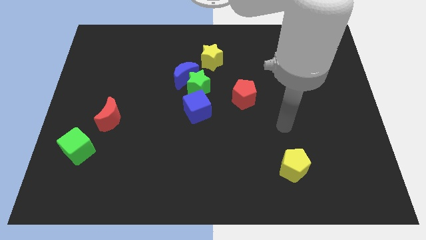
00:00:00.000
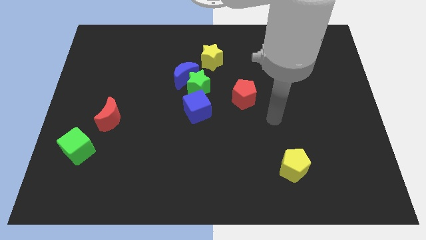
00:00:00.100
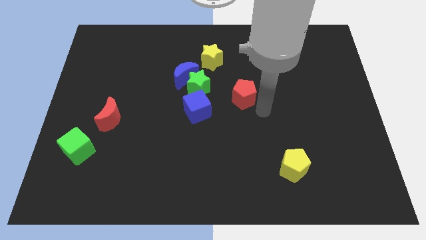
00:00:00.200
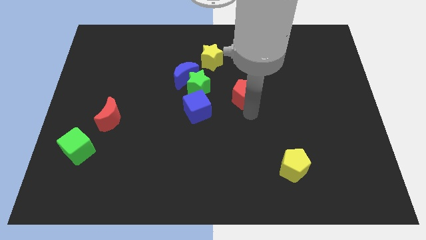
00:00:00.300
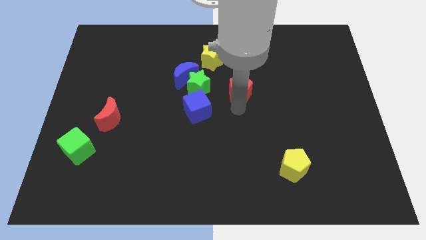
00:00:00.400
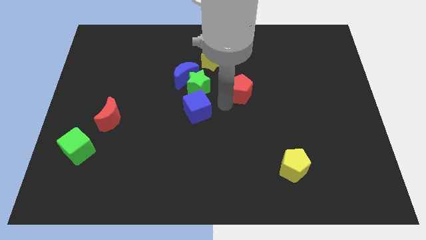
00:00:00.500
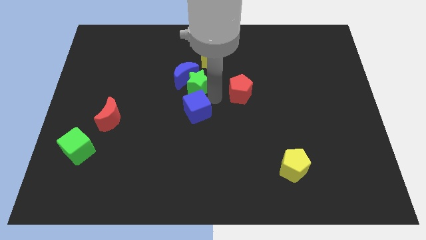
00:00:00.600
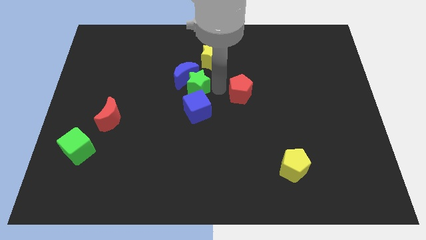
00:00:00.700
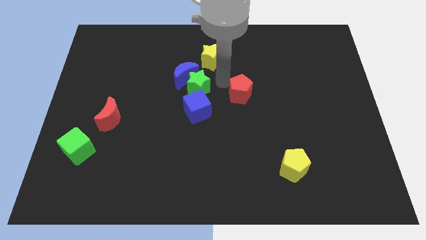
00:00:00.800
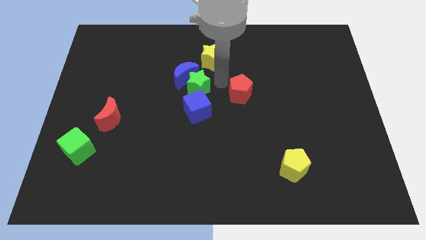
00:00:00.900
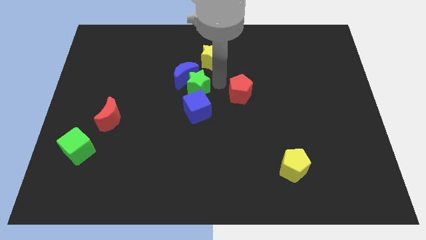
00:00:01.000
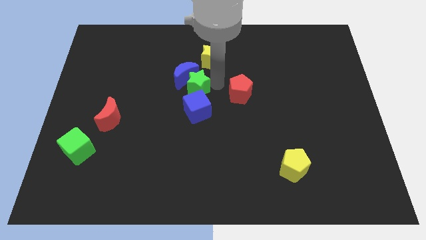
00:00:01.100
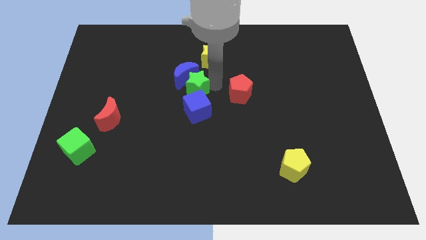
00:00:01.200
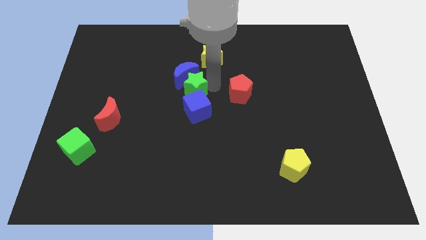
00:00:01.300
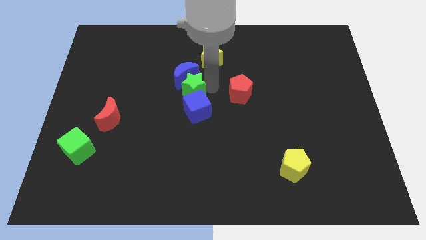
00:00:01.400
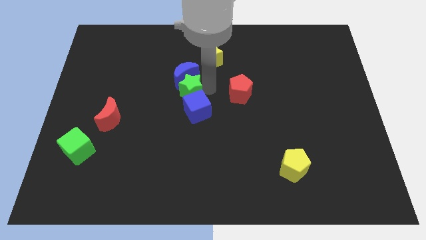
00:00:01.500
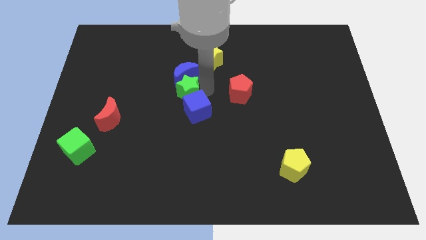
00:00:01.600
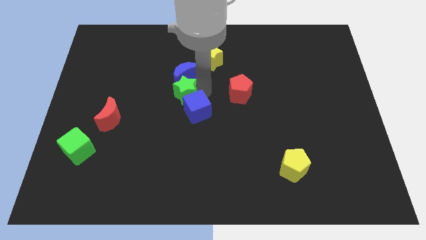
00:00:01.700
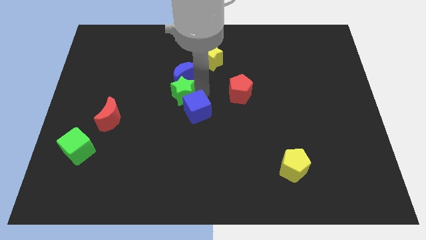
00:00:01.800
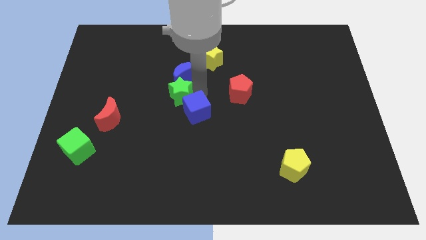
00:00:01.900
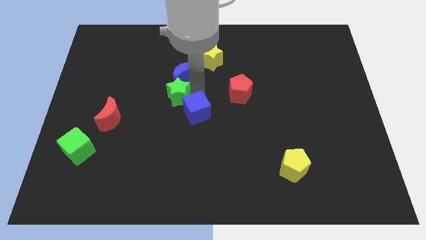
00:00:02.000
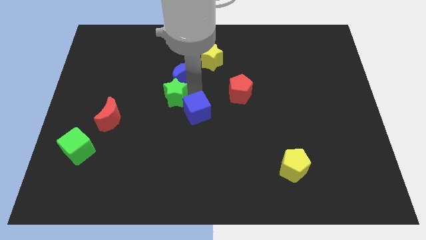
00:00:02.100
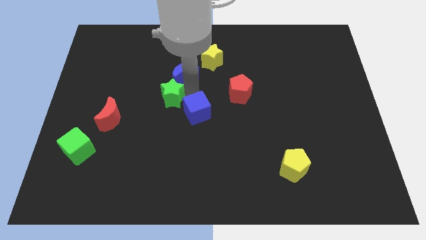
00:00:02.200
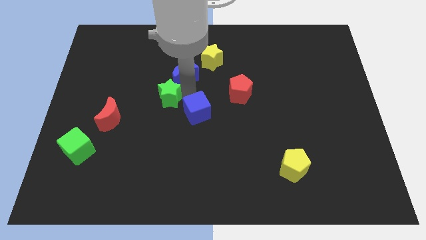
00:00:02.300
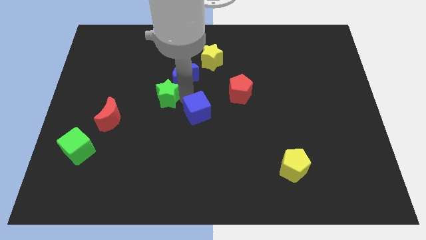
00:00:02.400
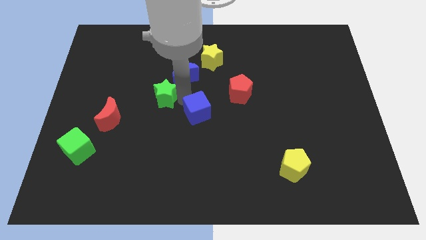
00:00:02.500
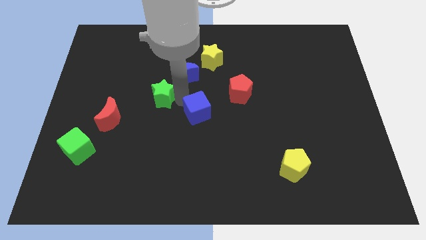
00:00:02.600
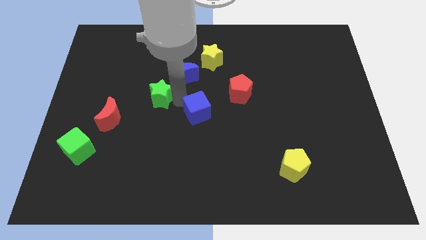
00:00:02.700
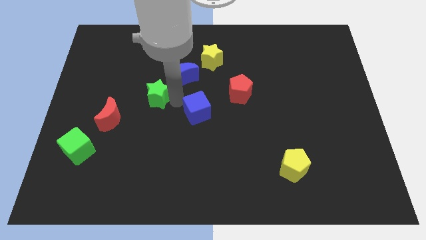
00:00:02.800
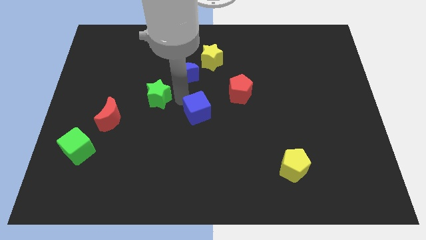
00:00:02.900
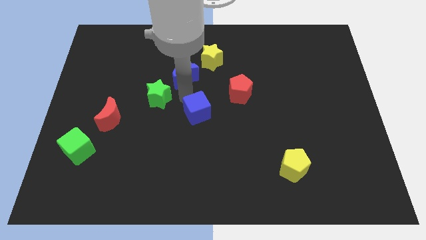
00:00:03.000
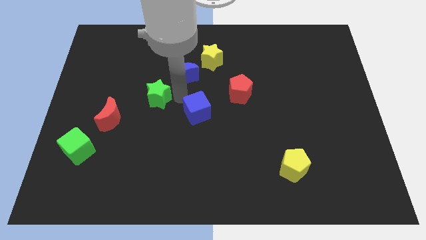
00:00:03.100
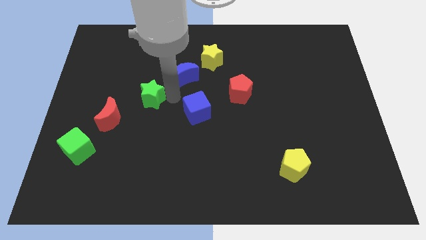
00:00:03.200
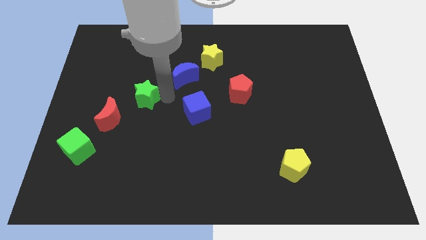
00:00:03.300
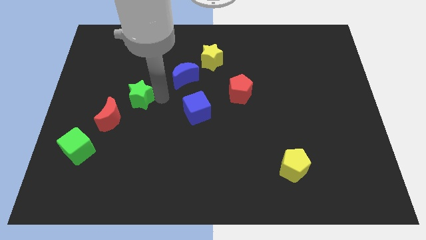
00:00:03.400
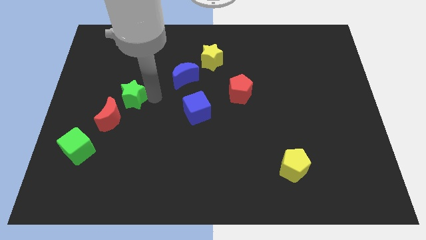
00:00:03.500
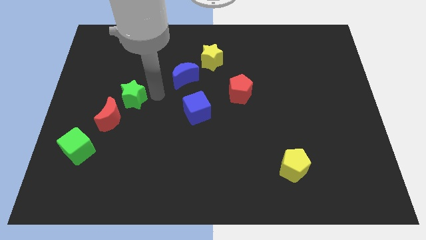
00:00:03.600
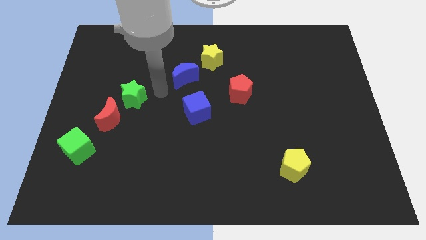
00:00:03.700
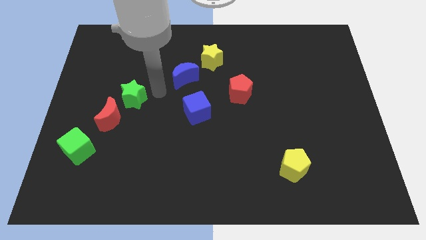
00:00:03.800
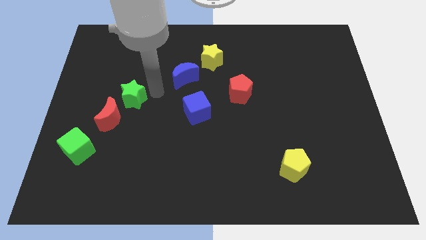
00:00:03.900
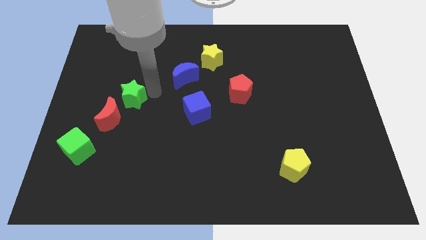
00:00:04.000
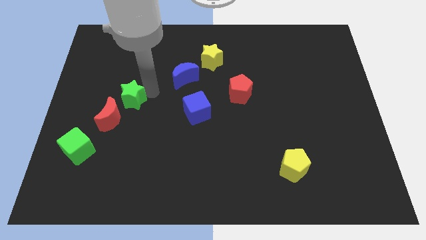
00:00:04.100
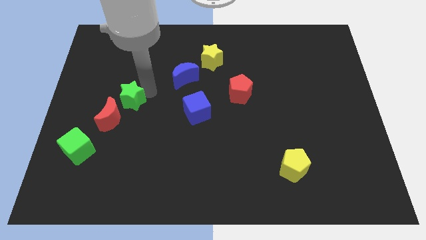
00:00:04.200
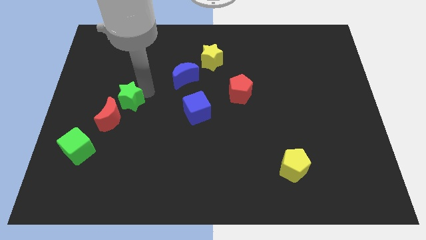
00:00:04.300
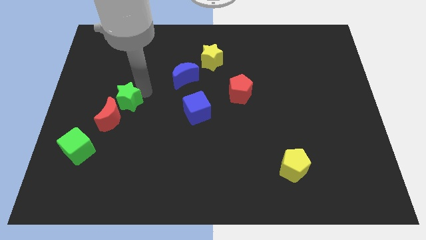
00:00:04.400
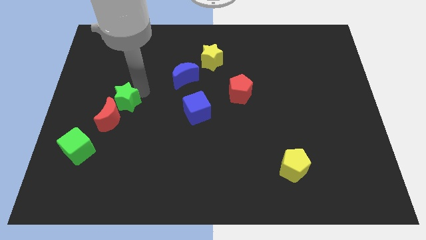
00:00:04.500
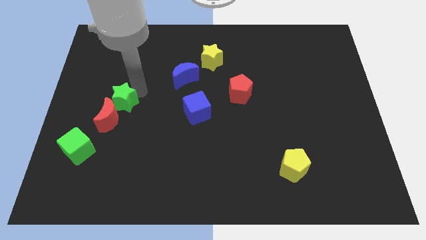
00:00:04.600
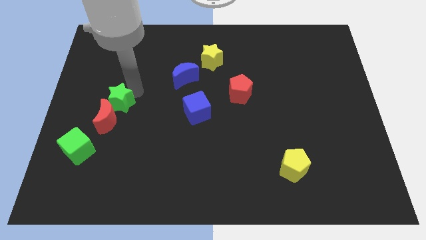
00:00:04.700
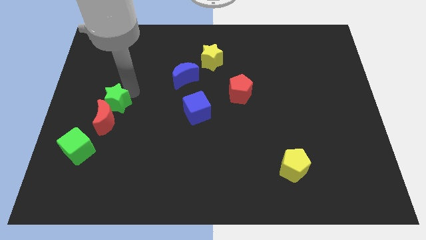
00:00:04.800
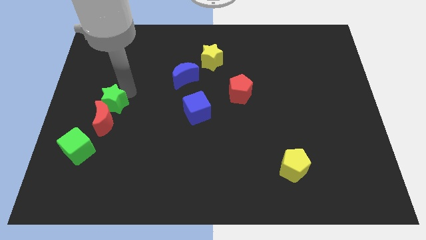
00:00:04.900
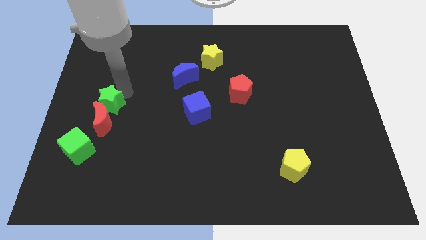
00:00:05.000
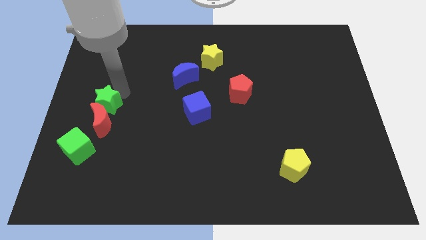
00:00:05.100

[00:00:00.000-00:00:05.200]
push the green star above the green cube
